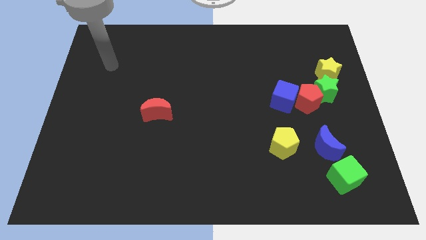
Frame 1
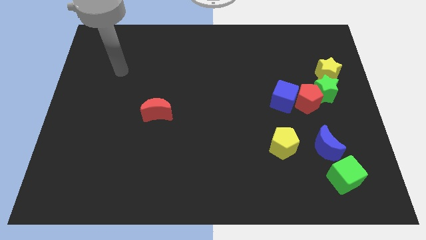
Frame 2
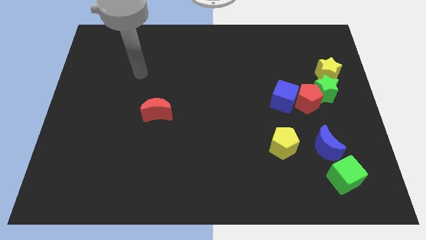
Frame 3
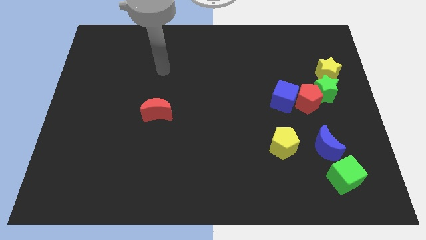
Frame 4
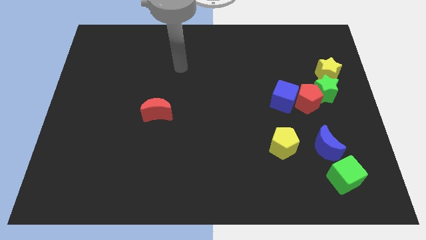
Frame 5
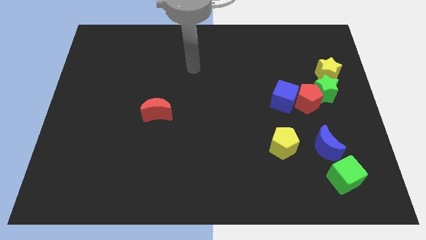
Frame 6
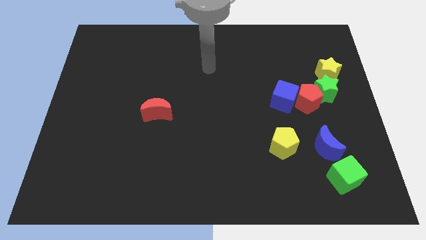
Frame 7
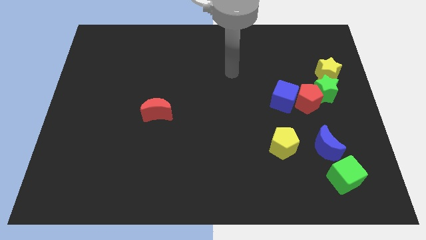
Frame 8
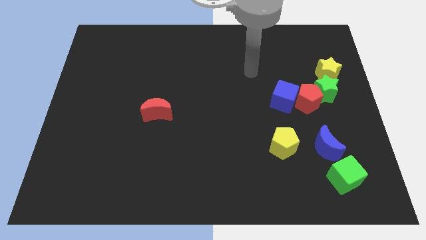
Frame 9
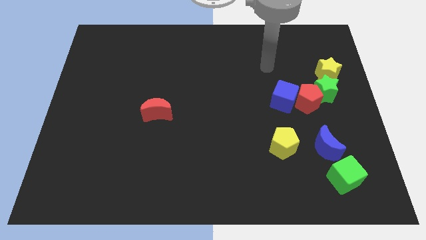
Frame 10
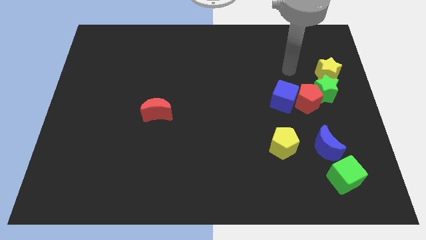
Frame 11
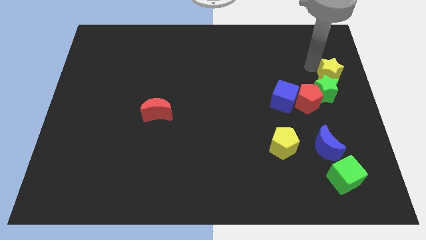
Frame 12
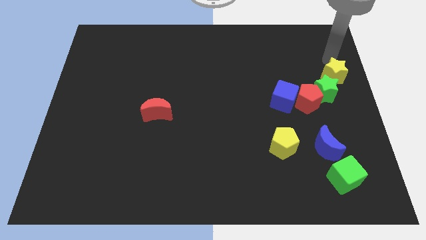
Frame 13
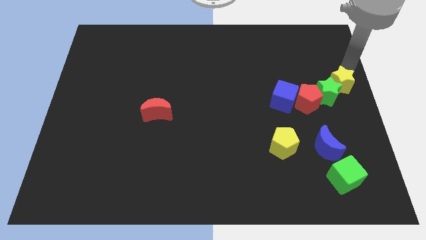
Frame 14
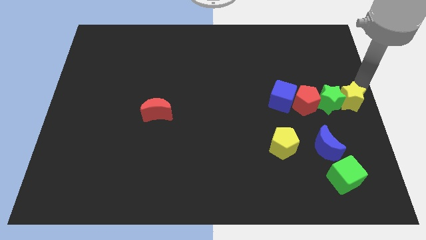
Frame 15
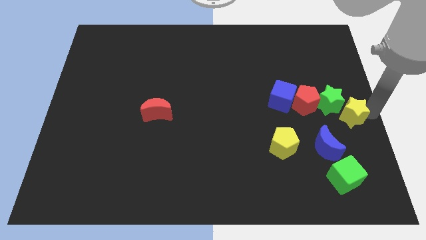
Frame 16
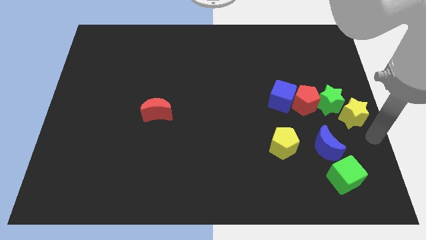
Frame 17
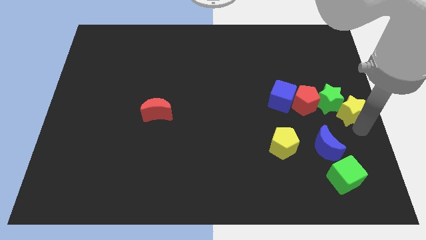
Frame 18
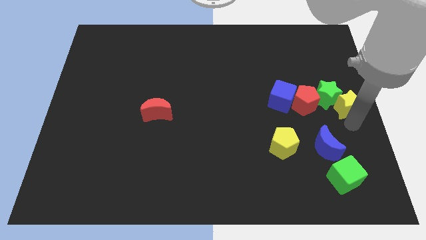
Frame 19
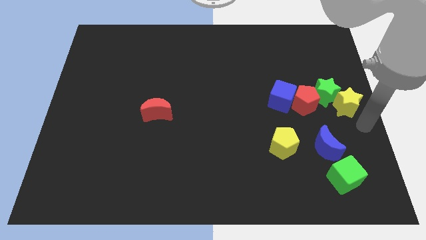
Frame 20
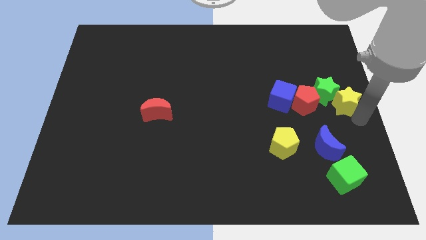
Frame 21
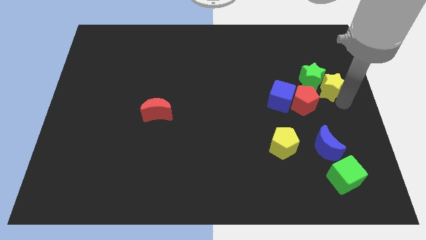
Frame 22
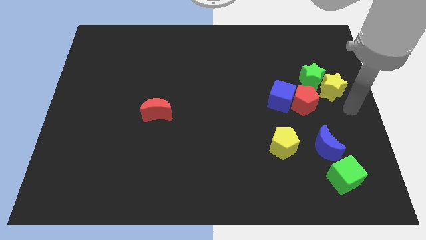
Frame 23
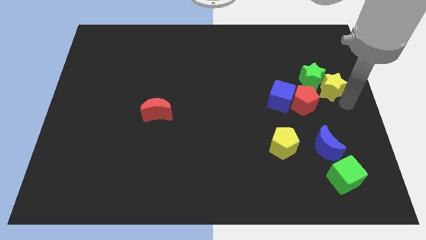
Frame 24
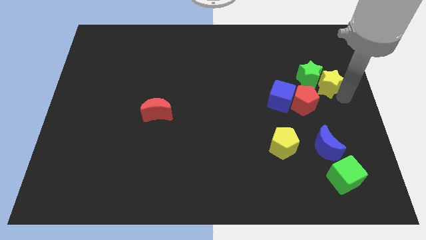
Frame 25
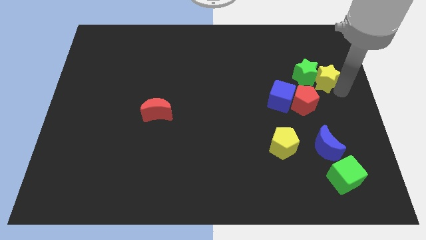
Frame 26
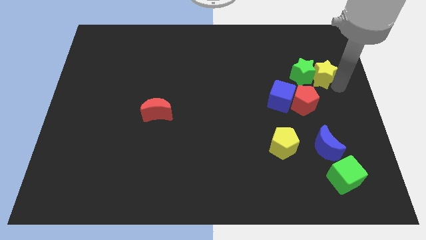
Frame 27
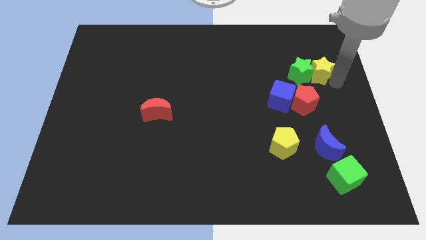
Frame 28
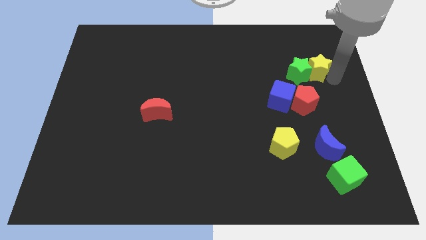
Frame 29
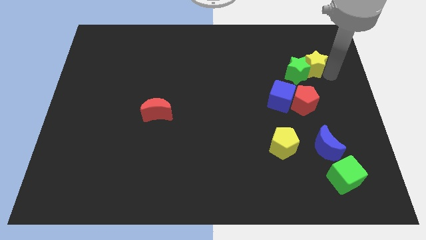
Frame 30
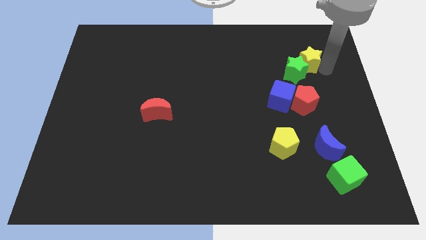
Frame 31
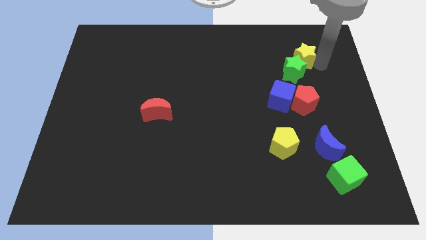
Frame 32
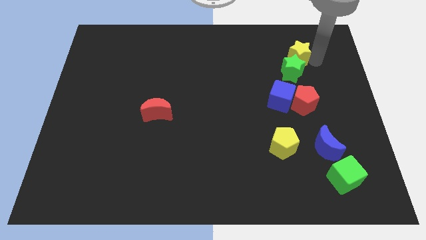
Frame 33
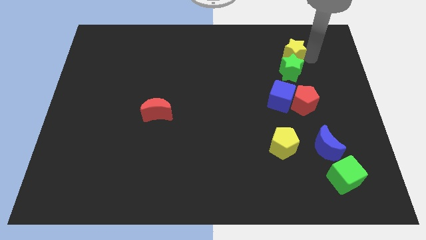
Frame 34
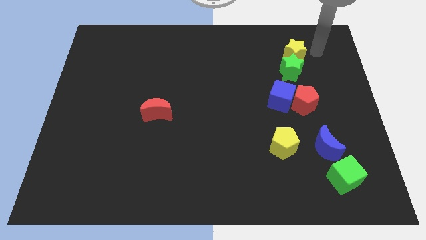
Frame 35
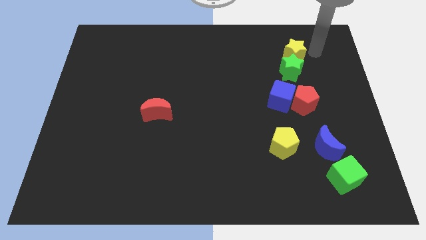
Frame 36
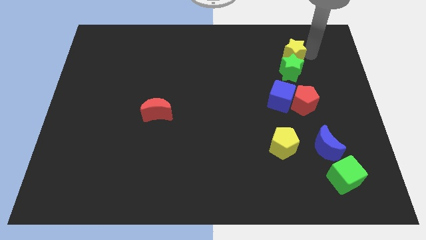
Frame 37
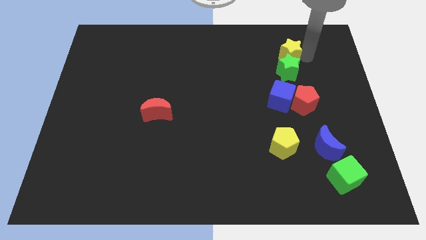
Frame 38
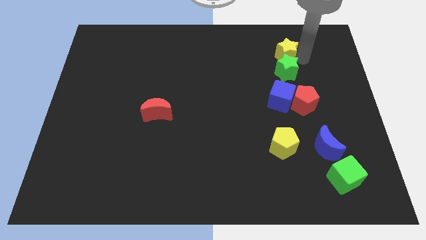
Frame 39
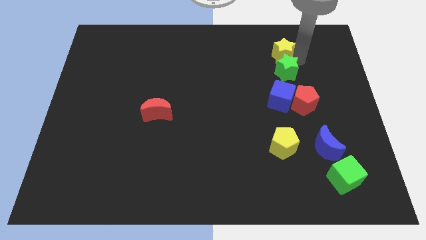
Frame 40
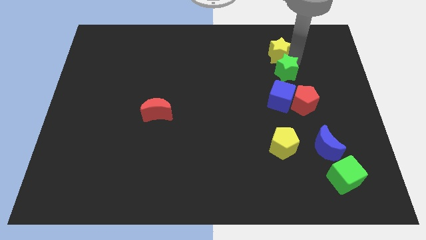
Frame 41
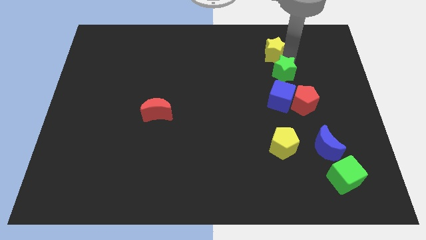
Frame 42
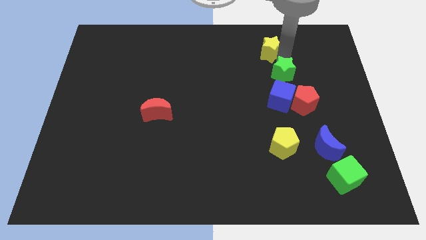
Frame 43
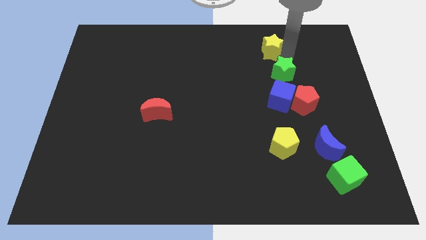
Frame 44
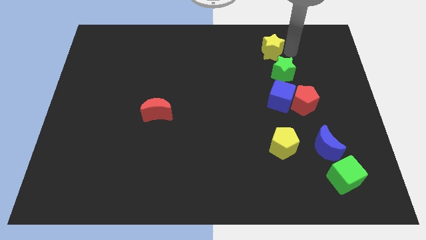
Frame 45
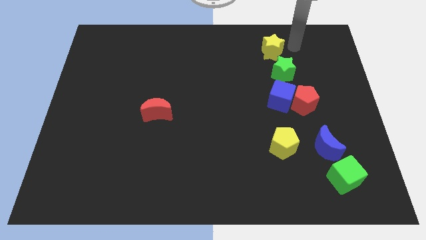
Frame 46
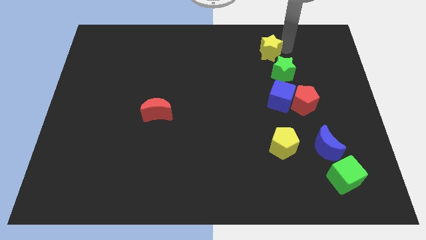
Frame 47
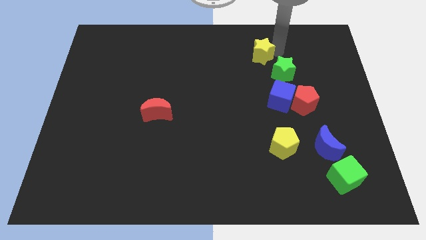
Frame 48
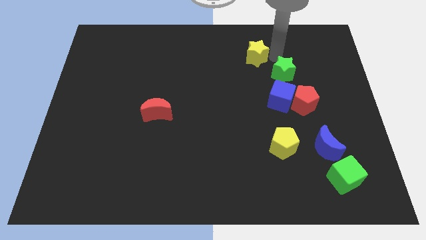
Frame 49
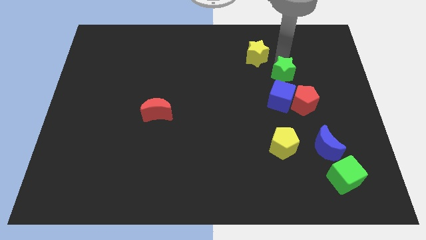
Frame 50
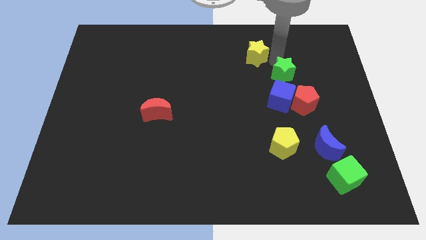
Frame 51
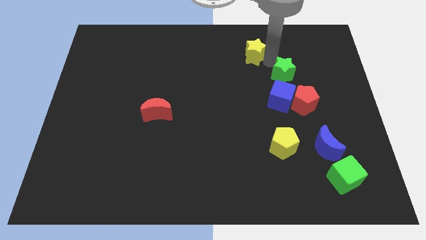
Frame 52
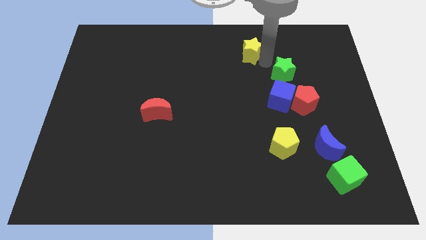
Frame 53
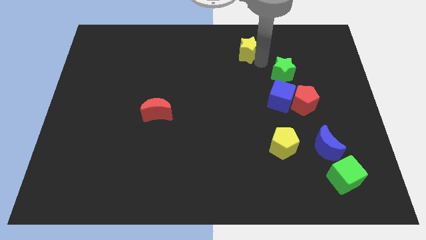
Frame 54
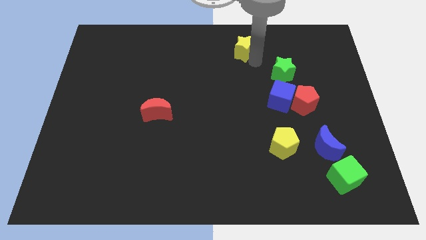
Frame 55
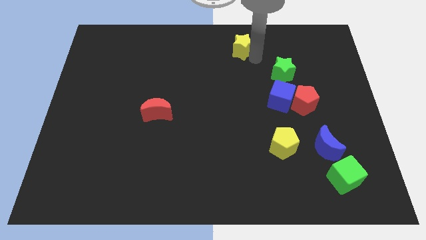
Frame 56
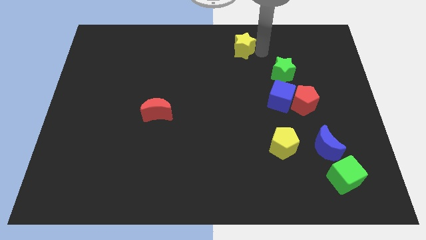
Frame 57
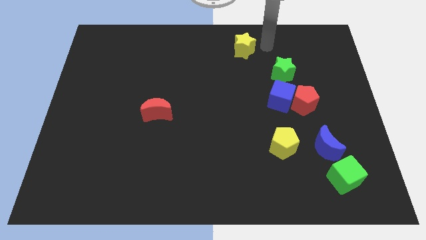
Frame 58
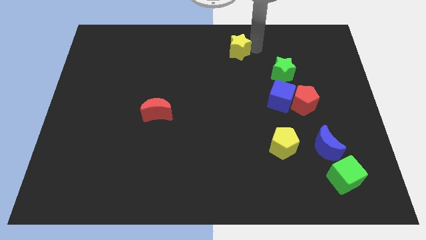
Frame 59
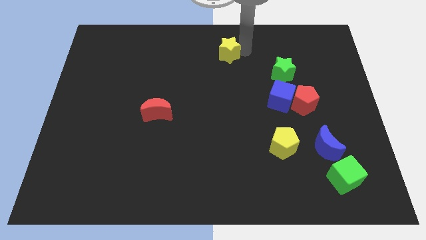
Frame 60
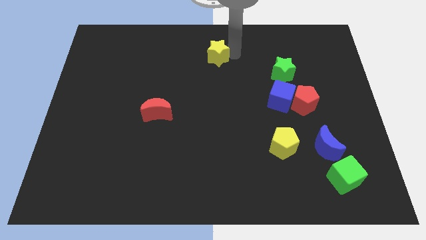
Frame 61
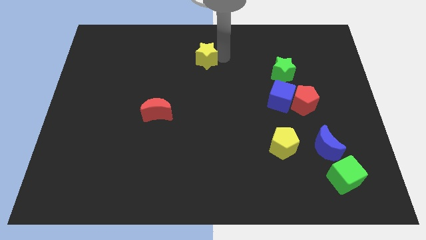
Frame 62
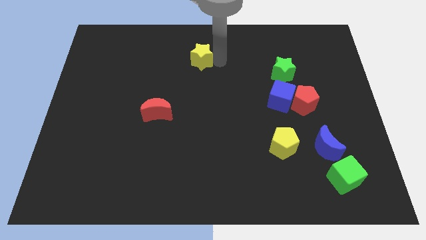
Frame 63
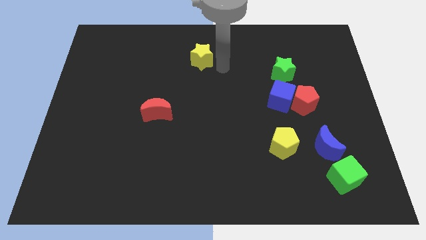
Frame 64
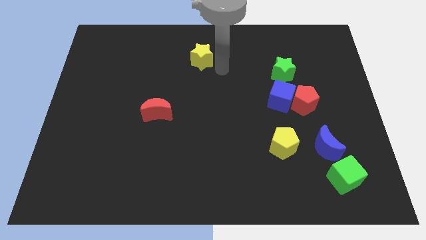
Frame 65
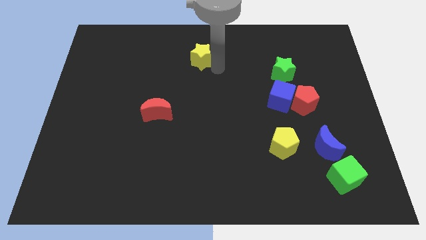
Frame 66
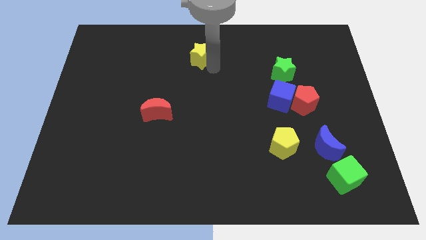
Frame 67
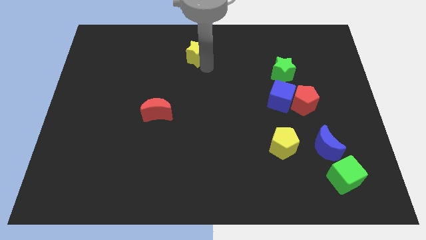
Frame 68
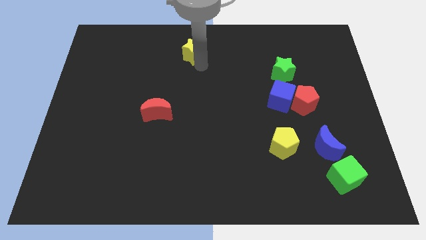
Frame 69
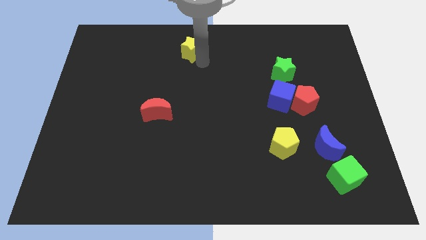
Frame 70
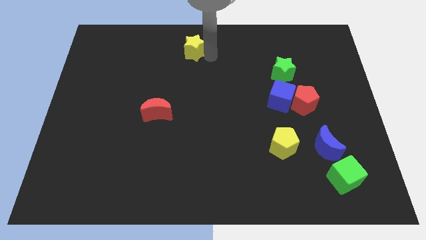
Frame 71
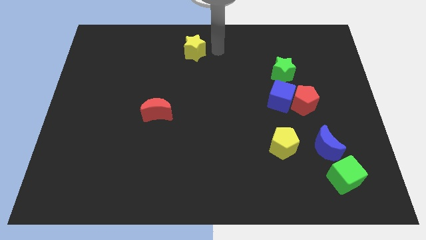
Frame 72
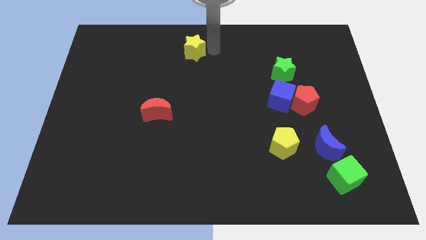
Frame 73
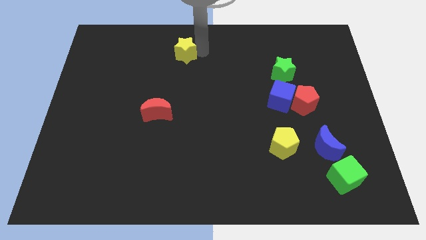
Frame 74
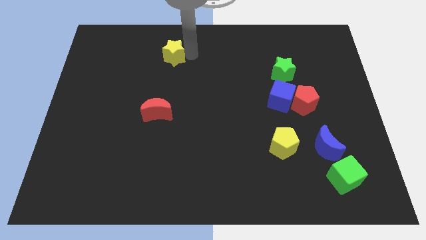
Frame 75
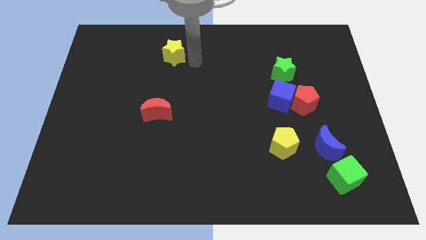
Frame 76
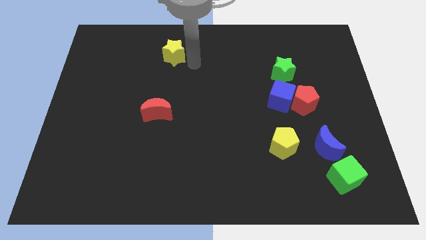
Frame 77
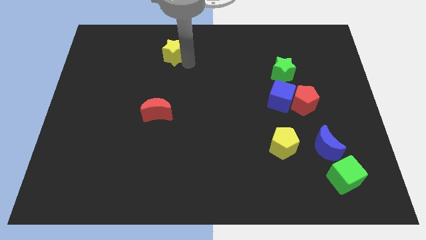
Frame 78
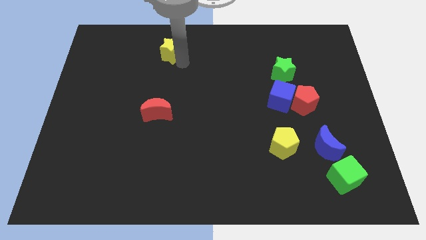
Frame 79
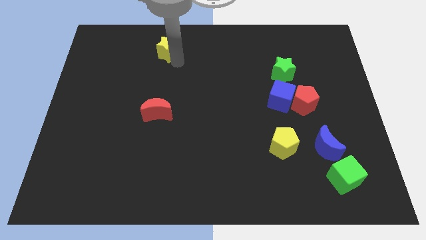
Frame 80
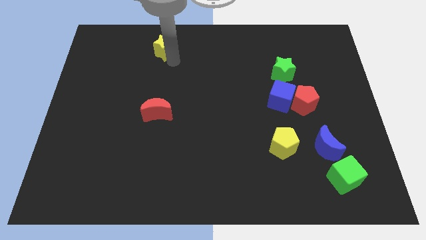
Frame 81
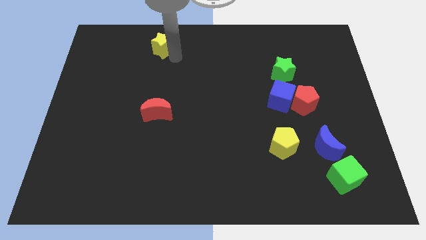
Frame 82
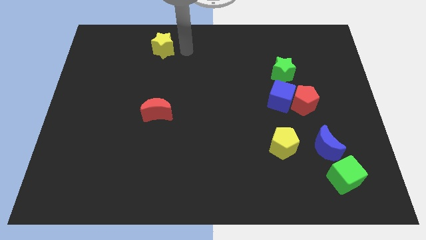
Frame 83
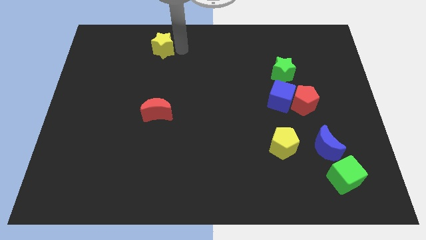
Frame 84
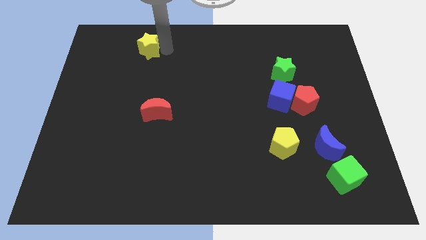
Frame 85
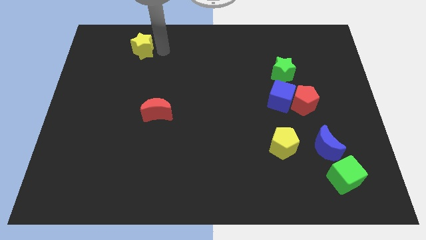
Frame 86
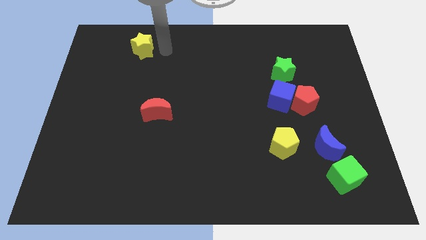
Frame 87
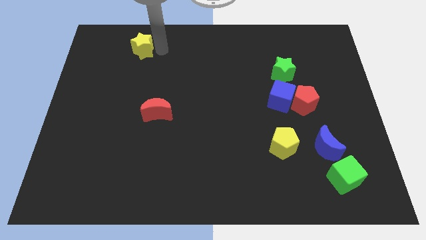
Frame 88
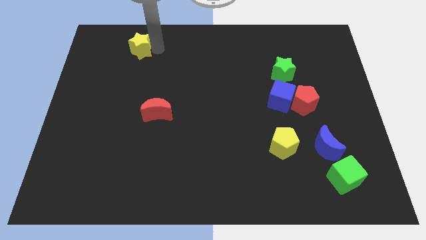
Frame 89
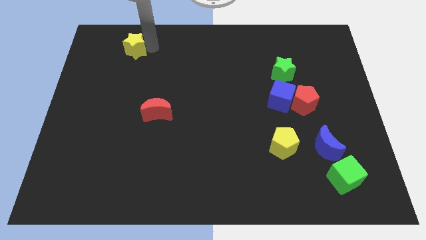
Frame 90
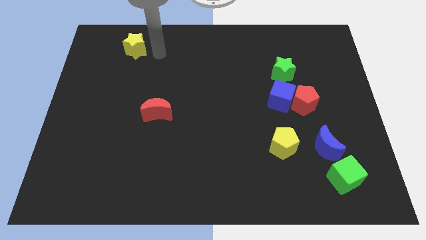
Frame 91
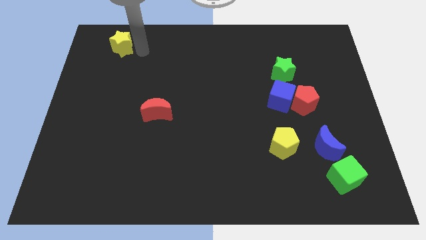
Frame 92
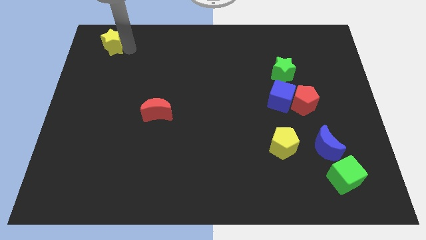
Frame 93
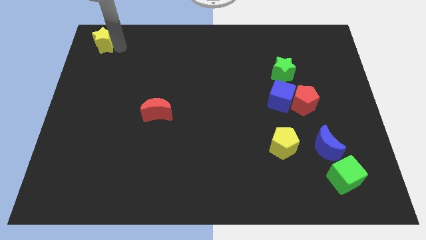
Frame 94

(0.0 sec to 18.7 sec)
slide the yellow star to the upper left corner
